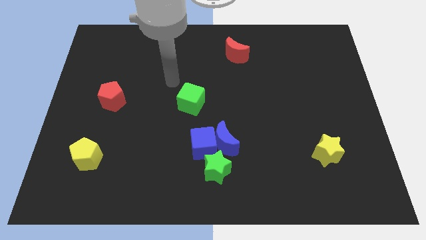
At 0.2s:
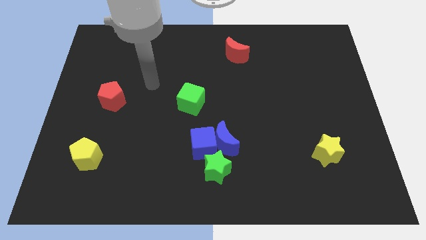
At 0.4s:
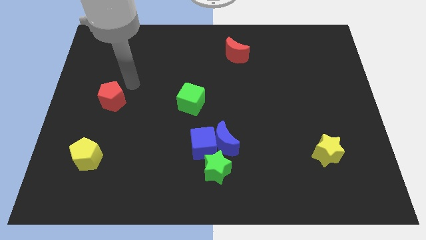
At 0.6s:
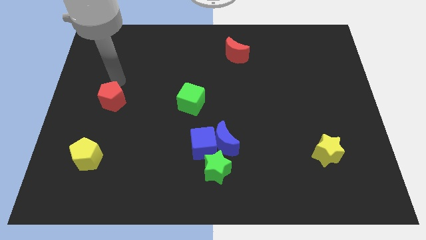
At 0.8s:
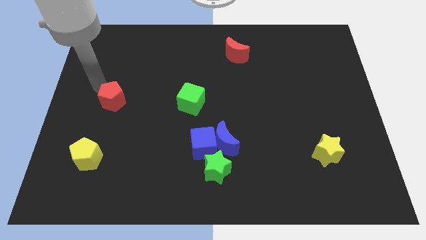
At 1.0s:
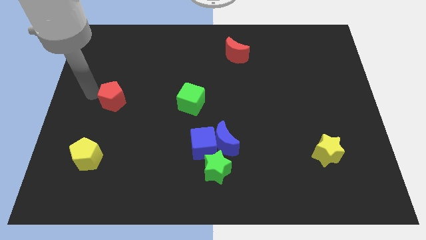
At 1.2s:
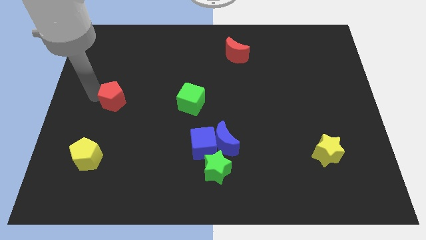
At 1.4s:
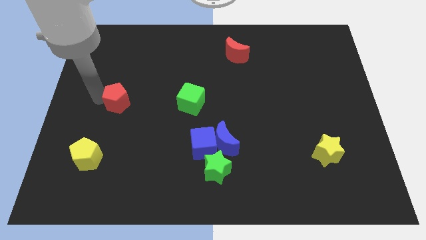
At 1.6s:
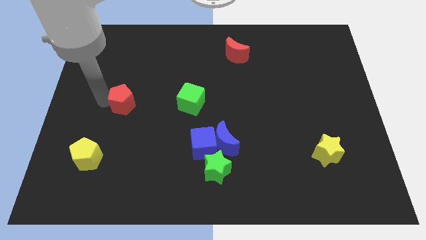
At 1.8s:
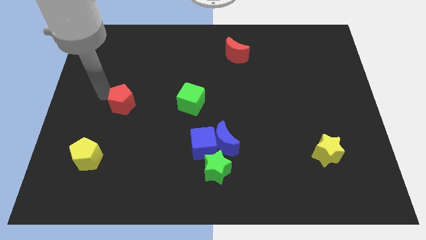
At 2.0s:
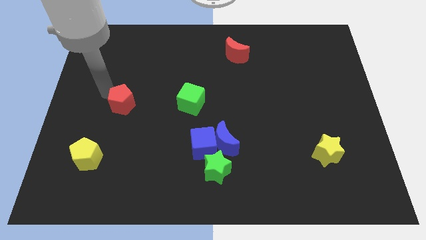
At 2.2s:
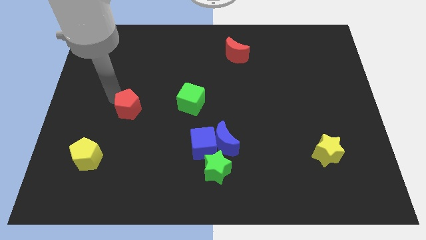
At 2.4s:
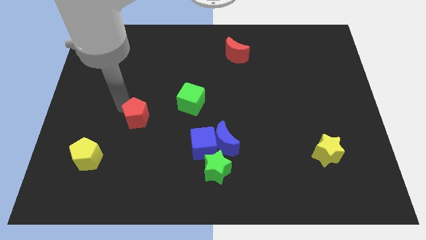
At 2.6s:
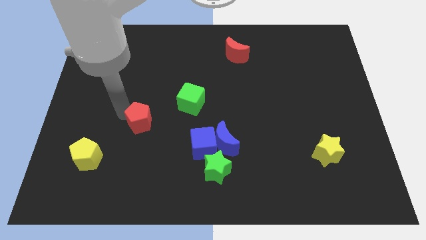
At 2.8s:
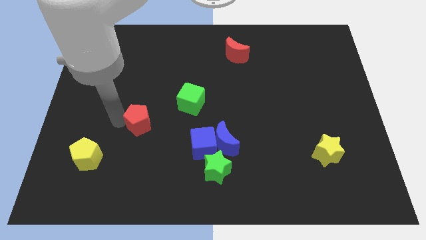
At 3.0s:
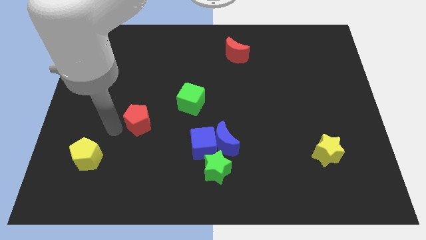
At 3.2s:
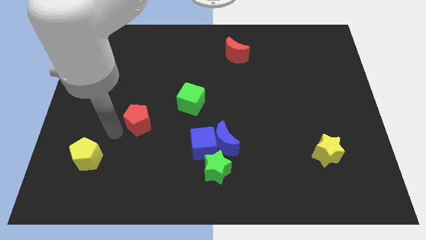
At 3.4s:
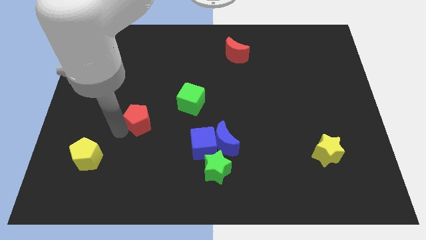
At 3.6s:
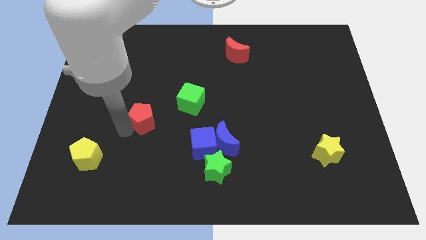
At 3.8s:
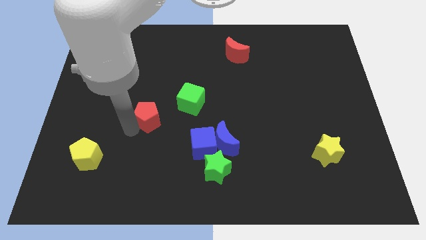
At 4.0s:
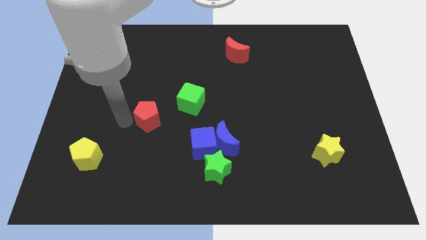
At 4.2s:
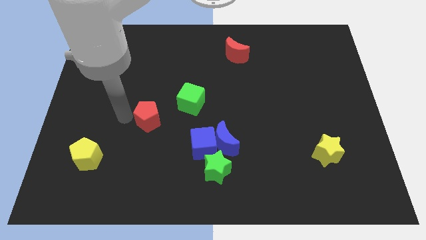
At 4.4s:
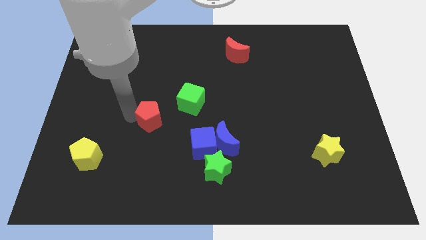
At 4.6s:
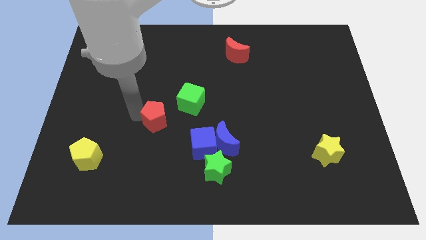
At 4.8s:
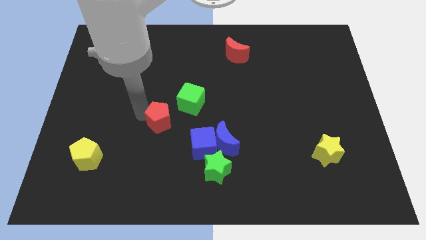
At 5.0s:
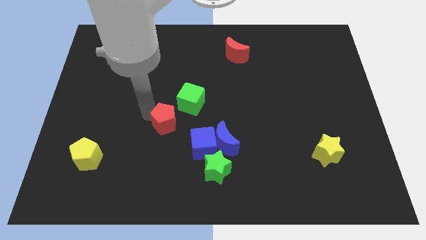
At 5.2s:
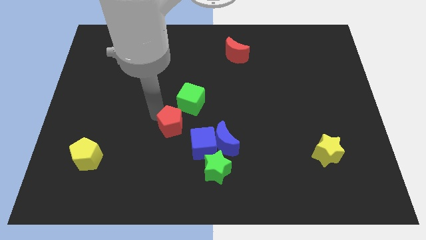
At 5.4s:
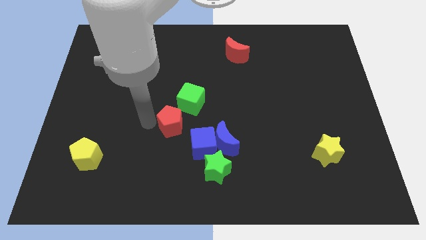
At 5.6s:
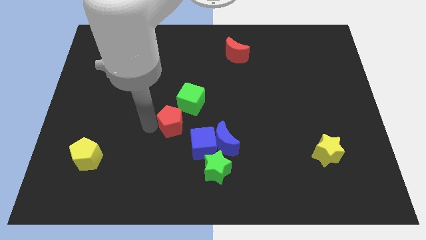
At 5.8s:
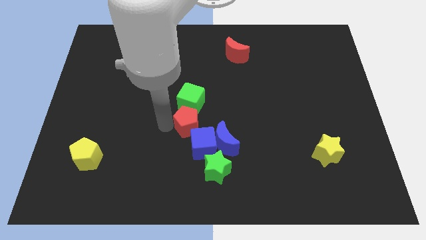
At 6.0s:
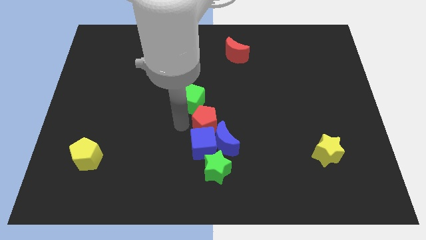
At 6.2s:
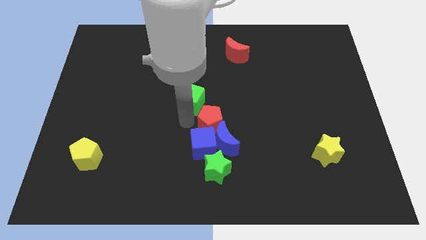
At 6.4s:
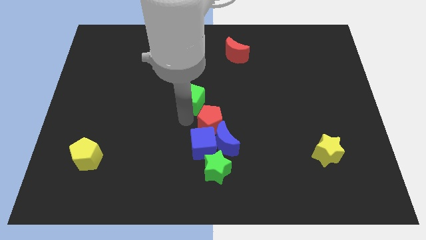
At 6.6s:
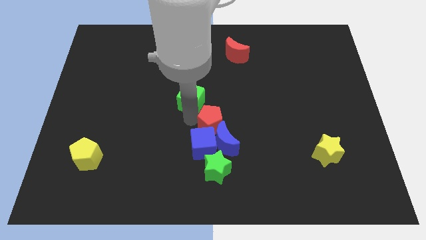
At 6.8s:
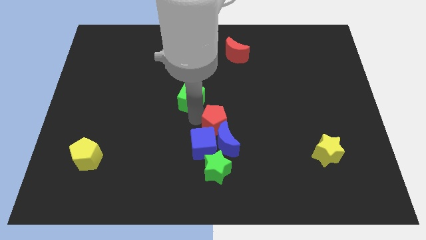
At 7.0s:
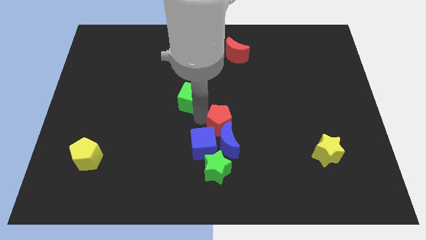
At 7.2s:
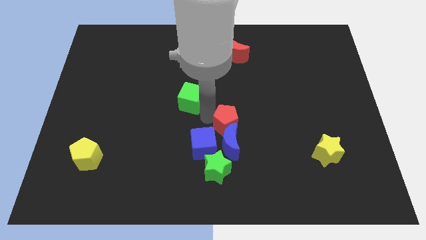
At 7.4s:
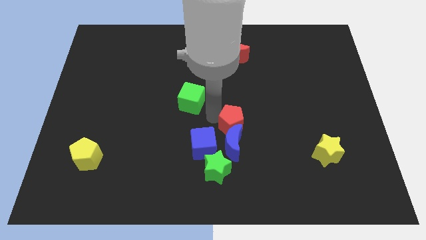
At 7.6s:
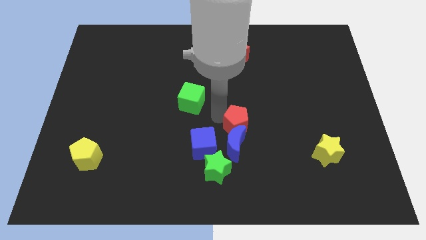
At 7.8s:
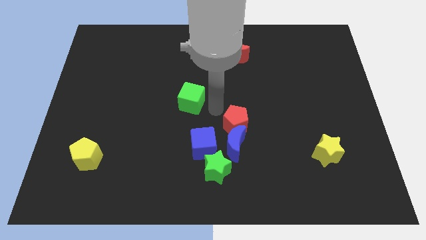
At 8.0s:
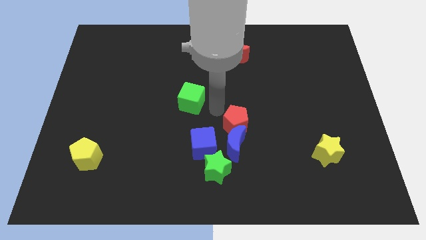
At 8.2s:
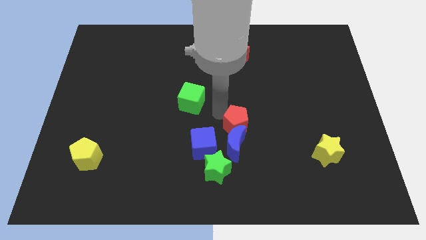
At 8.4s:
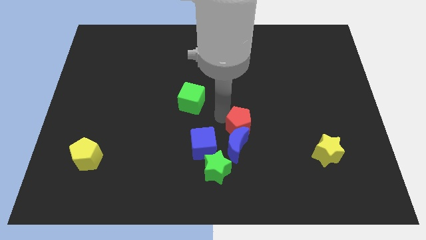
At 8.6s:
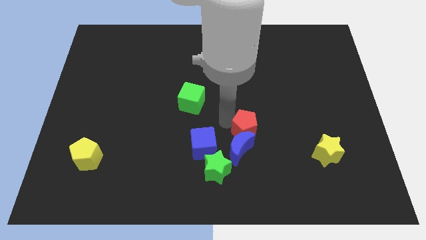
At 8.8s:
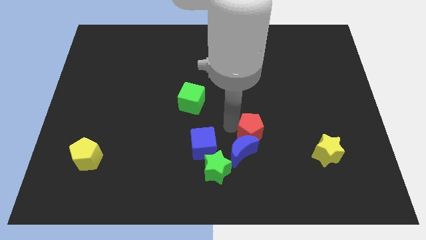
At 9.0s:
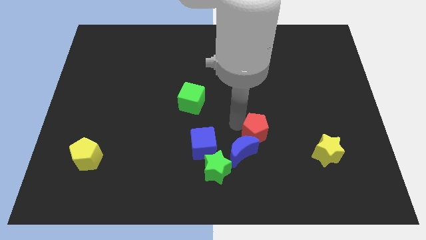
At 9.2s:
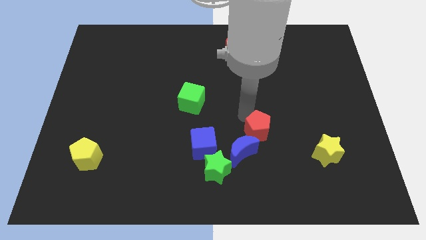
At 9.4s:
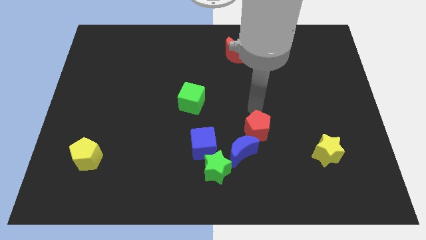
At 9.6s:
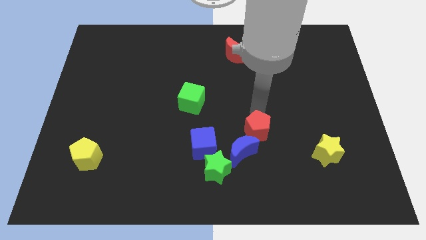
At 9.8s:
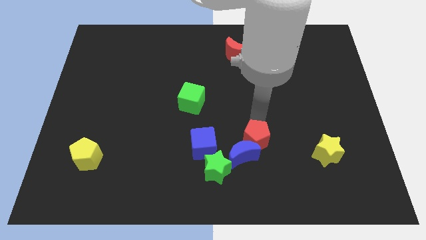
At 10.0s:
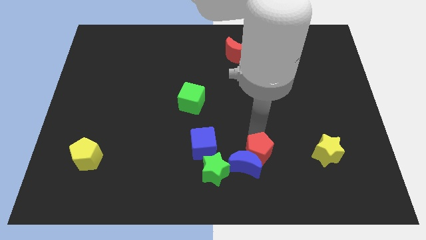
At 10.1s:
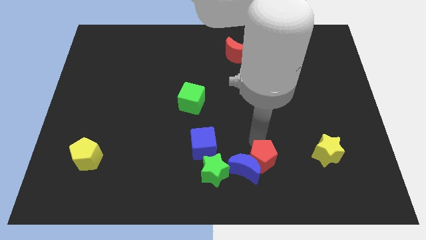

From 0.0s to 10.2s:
put the red pentagon to the right of the green star

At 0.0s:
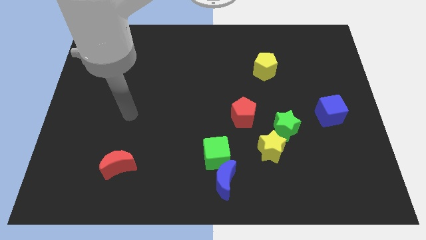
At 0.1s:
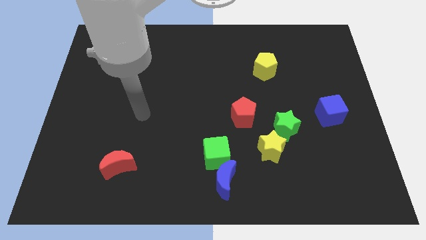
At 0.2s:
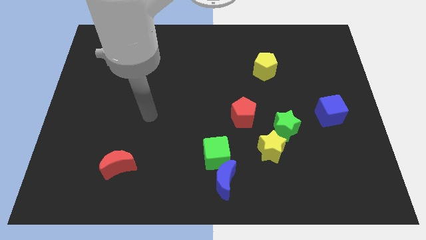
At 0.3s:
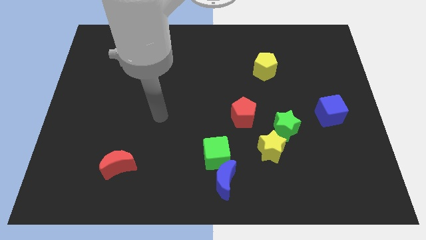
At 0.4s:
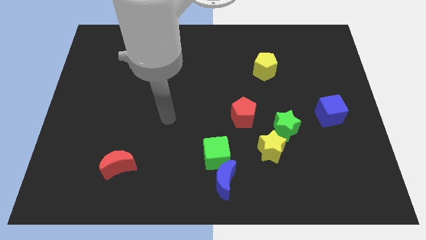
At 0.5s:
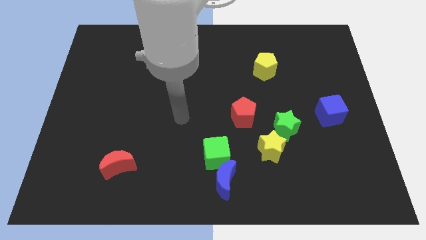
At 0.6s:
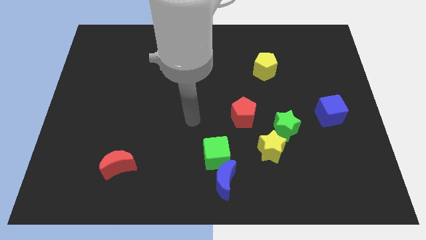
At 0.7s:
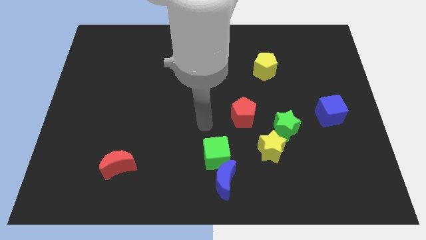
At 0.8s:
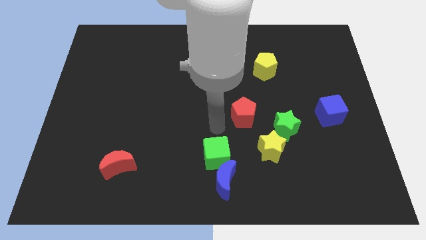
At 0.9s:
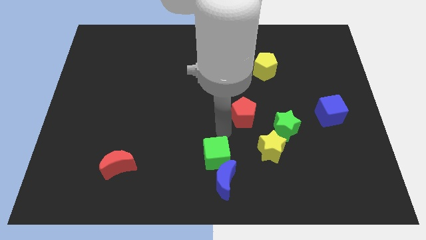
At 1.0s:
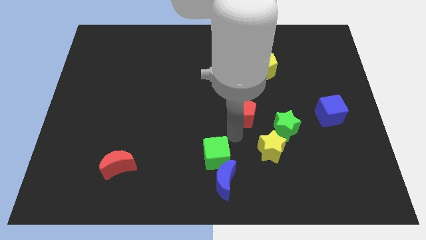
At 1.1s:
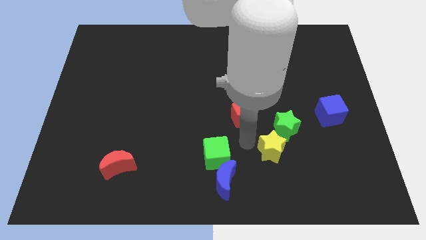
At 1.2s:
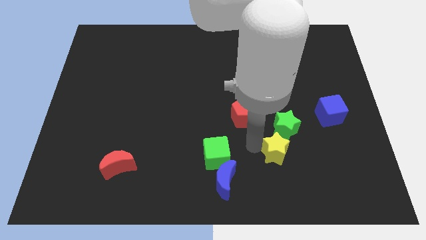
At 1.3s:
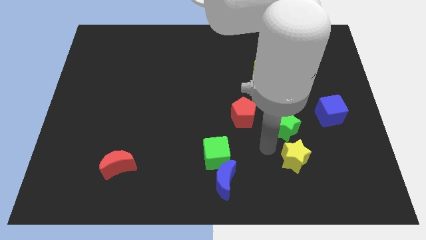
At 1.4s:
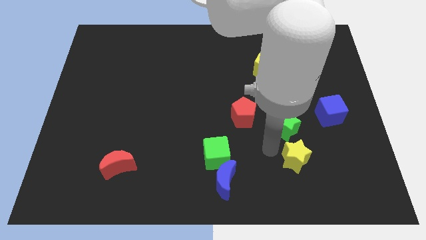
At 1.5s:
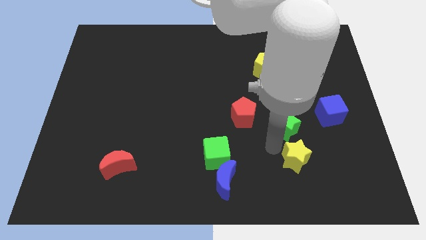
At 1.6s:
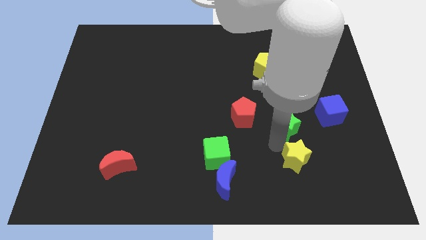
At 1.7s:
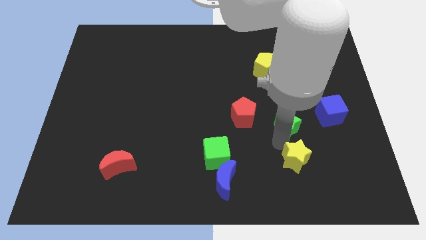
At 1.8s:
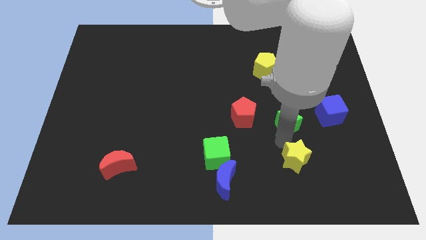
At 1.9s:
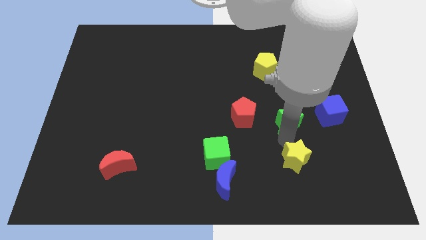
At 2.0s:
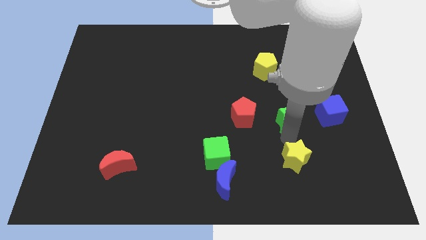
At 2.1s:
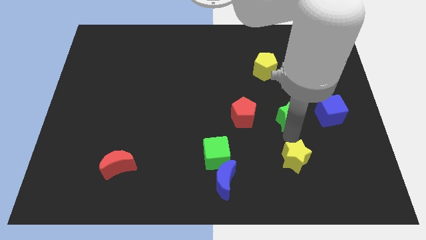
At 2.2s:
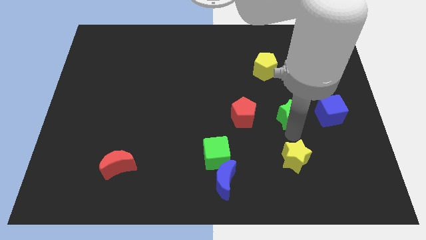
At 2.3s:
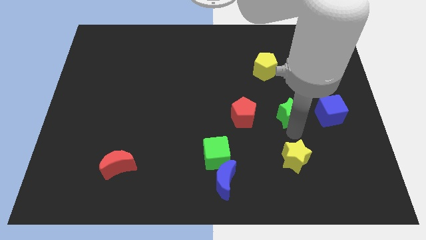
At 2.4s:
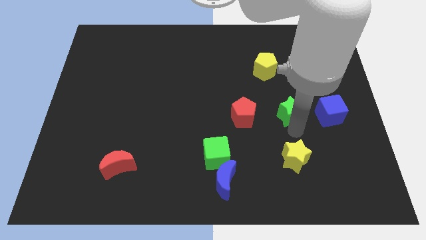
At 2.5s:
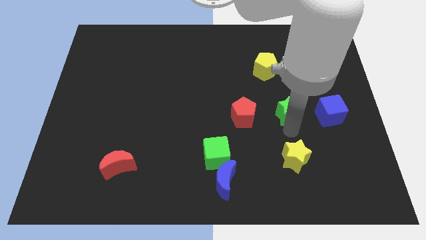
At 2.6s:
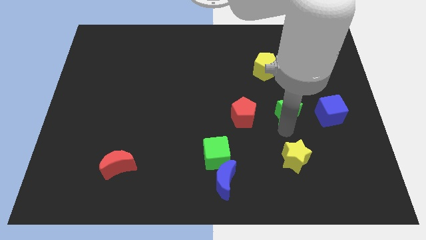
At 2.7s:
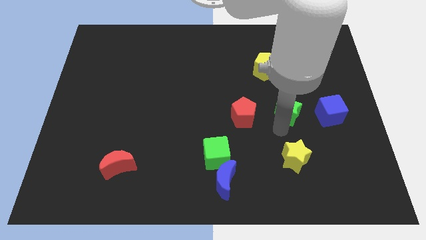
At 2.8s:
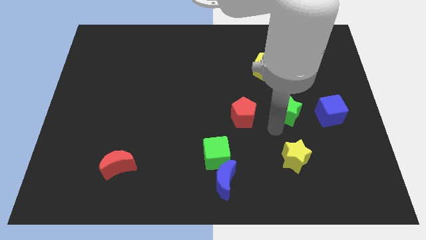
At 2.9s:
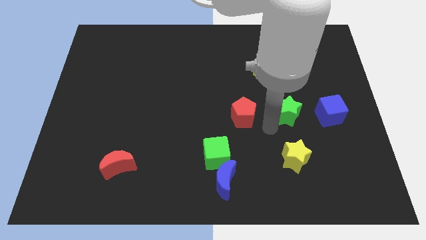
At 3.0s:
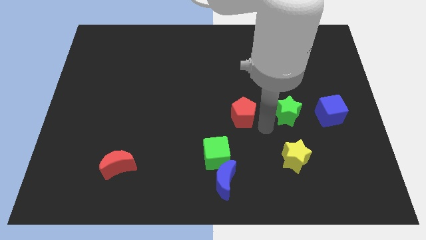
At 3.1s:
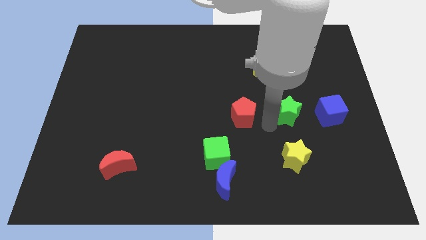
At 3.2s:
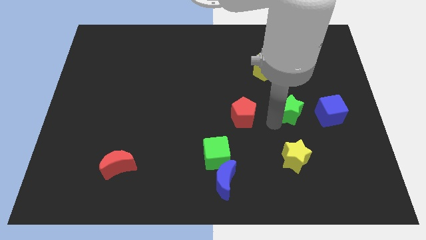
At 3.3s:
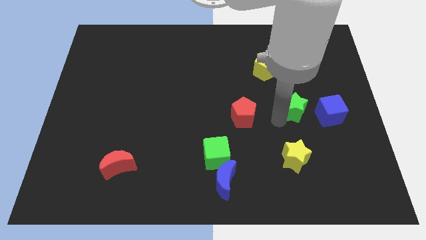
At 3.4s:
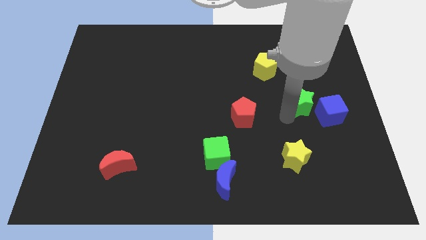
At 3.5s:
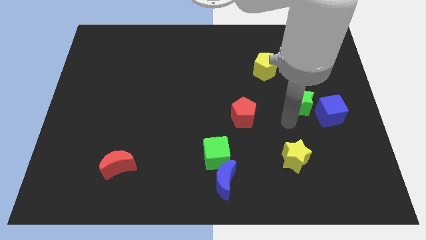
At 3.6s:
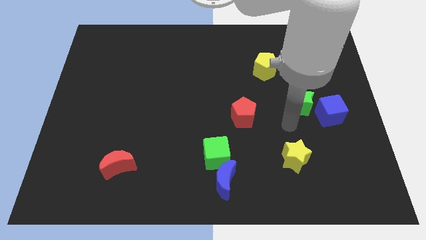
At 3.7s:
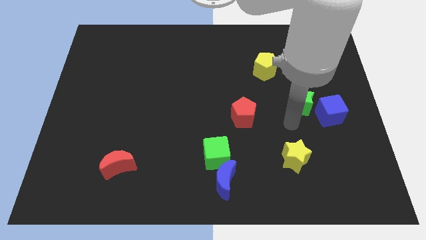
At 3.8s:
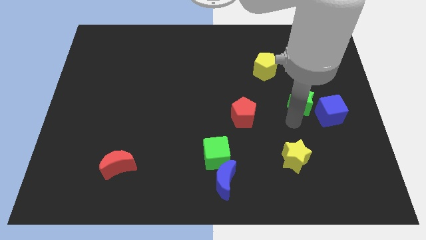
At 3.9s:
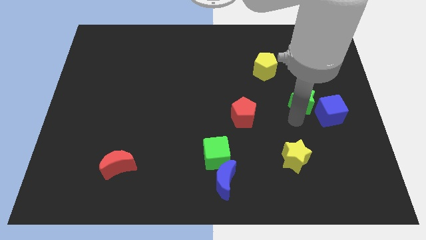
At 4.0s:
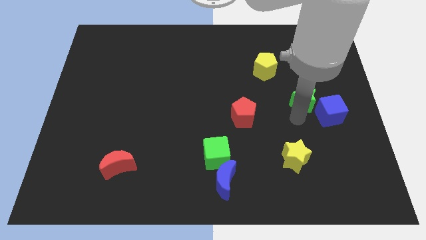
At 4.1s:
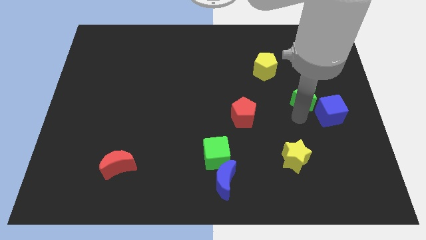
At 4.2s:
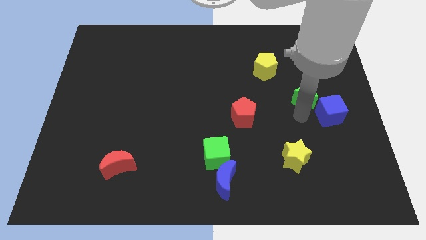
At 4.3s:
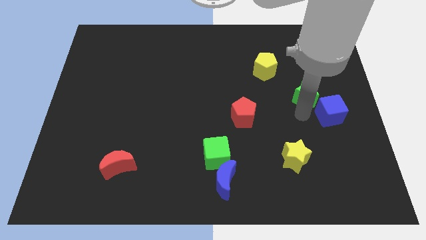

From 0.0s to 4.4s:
push the green star above the blue cube
